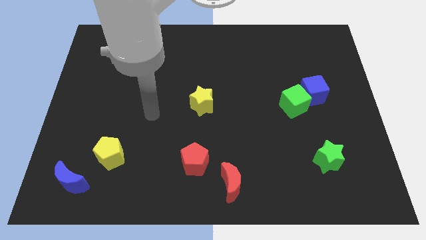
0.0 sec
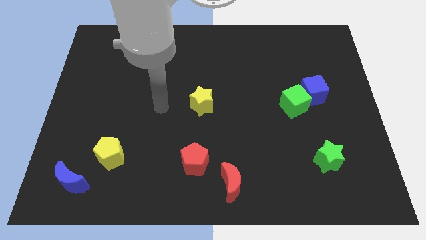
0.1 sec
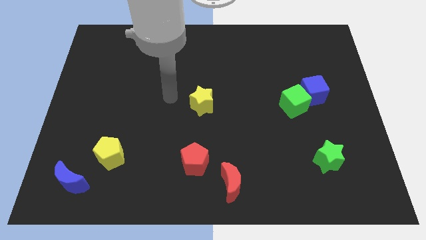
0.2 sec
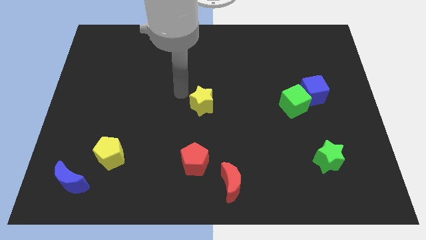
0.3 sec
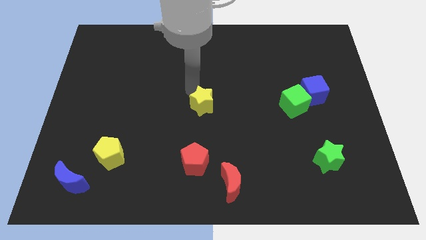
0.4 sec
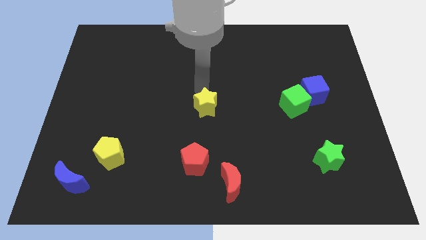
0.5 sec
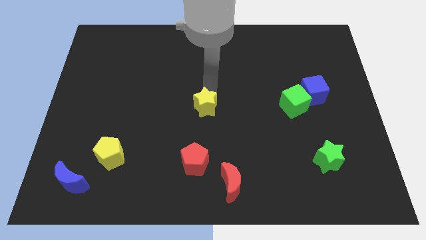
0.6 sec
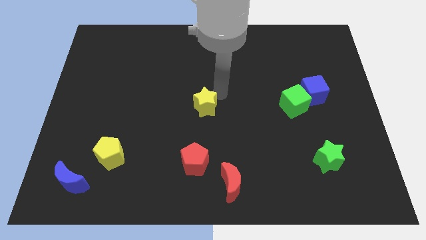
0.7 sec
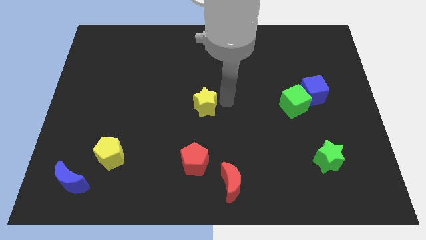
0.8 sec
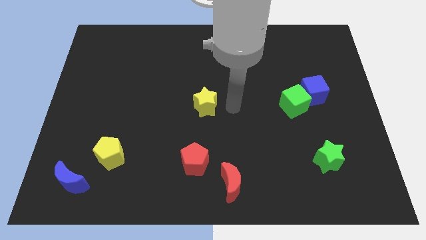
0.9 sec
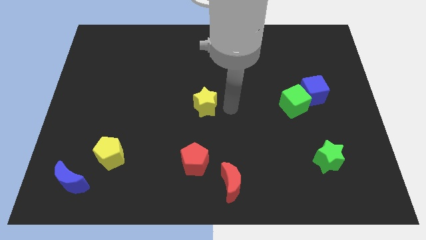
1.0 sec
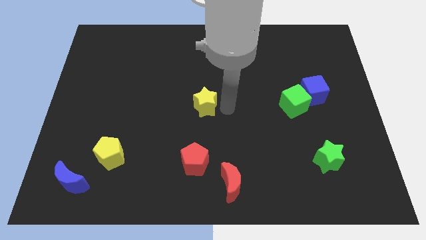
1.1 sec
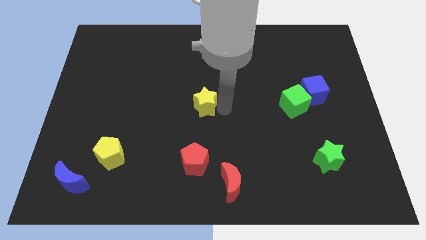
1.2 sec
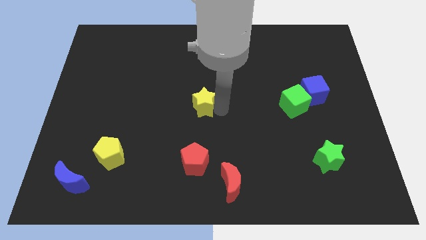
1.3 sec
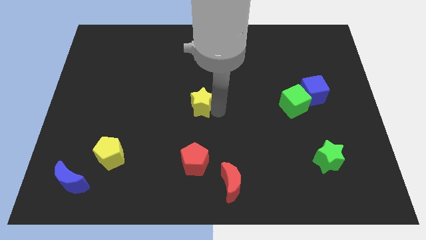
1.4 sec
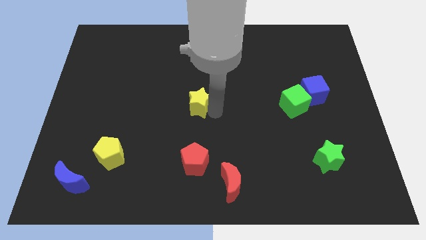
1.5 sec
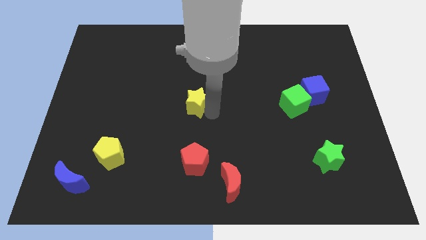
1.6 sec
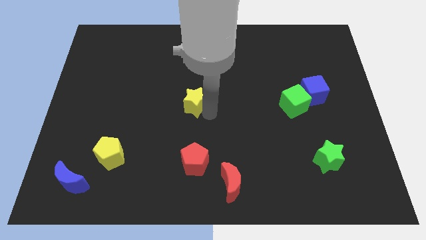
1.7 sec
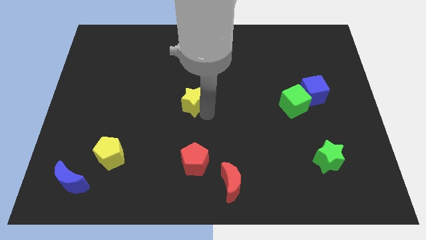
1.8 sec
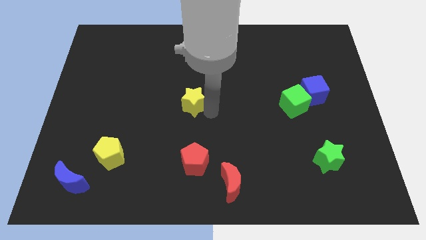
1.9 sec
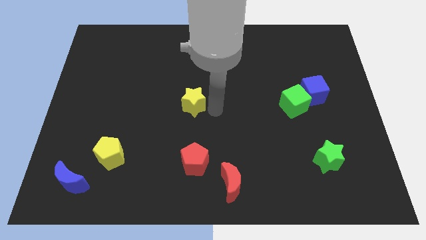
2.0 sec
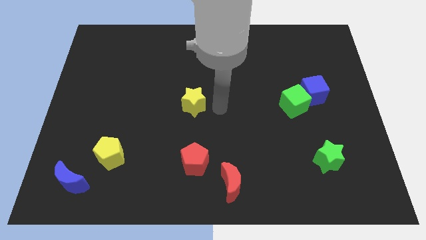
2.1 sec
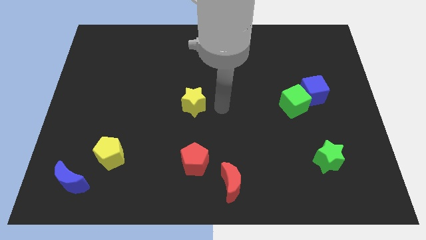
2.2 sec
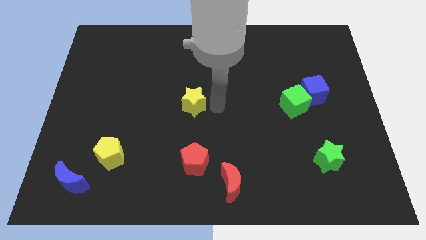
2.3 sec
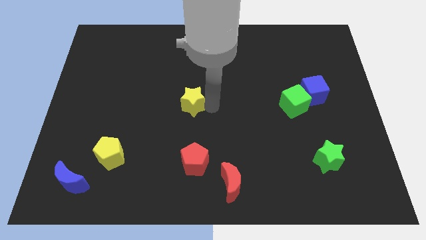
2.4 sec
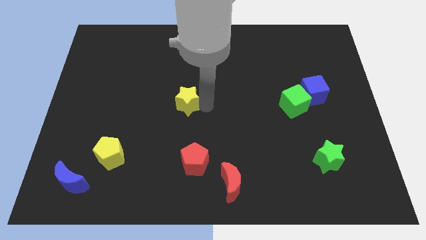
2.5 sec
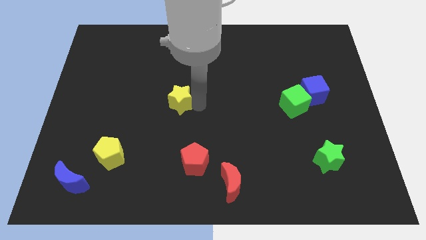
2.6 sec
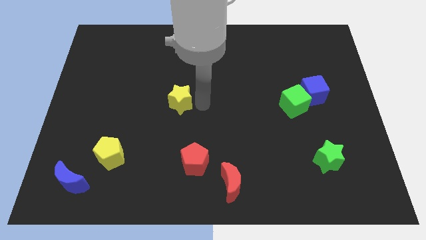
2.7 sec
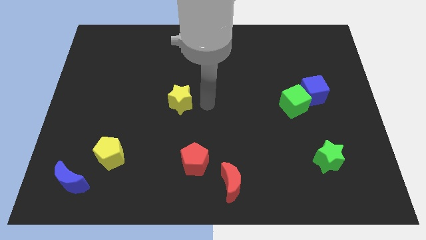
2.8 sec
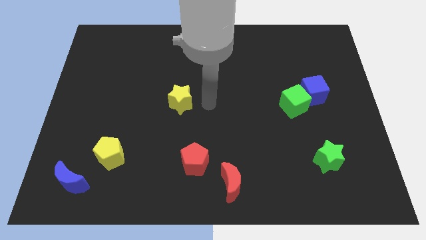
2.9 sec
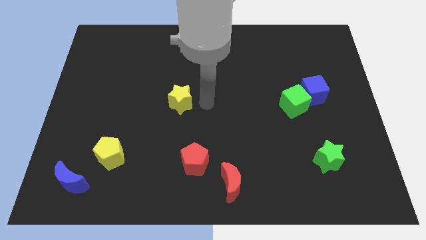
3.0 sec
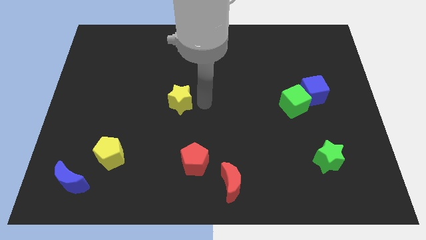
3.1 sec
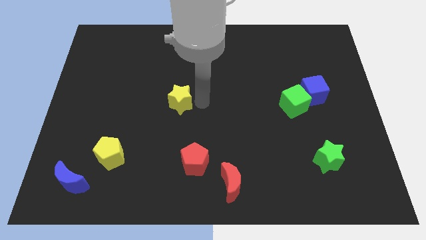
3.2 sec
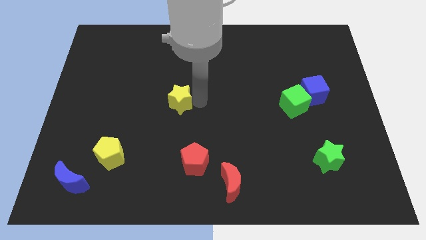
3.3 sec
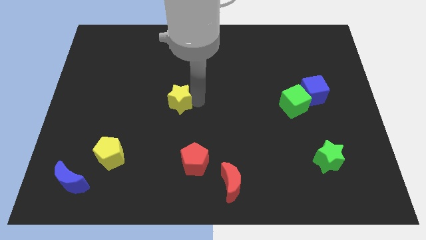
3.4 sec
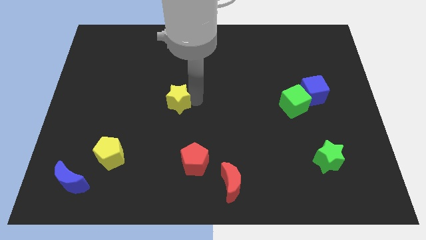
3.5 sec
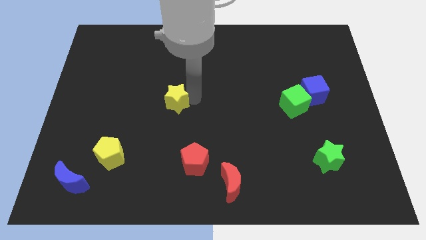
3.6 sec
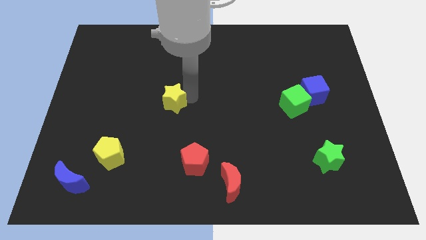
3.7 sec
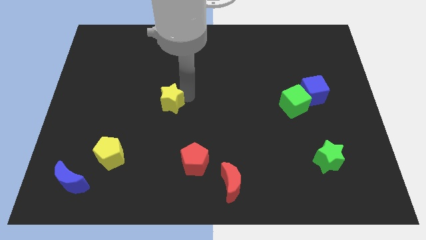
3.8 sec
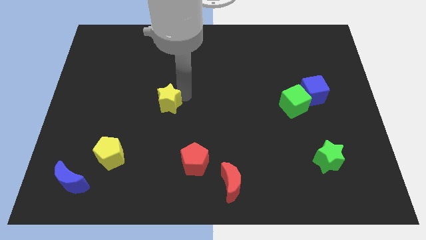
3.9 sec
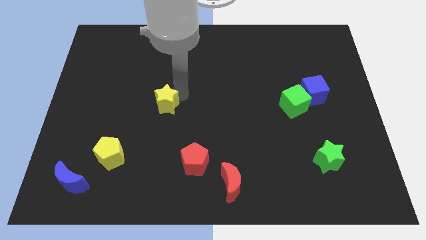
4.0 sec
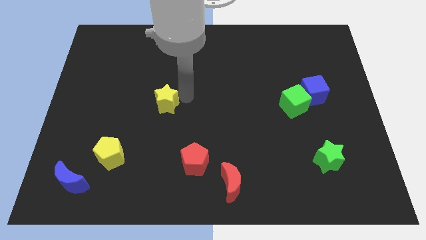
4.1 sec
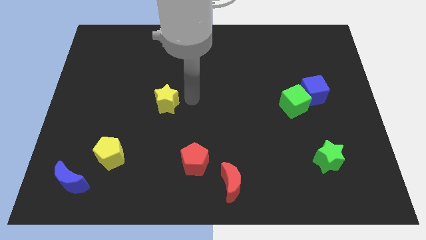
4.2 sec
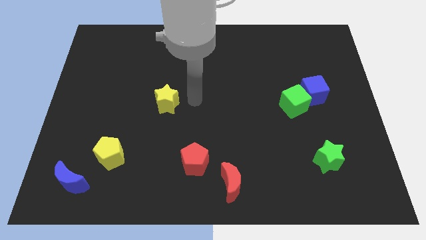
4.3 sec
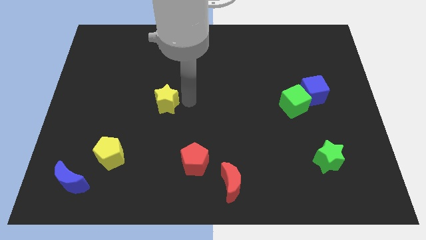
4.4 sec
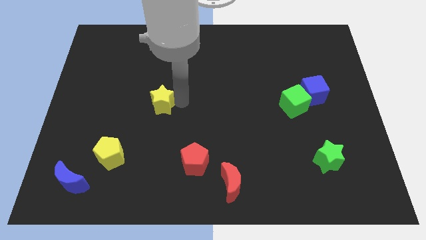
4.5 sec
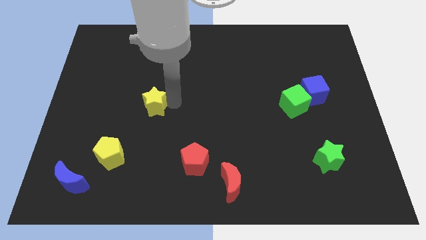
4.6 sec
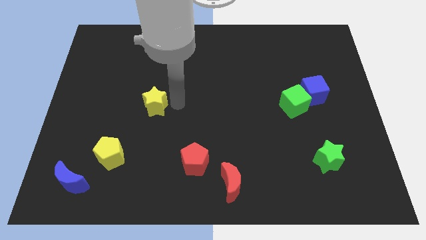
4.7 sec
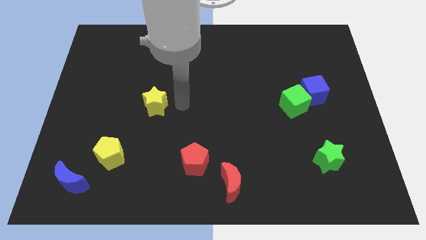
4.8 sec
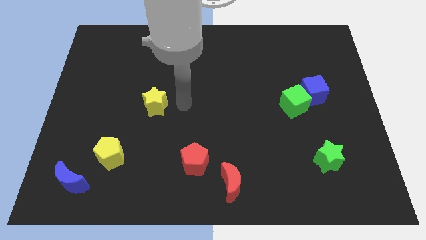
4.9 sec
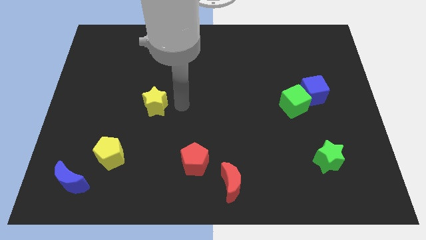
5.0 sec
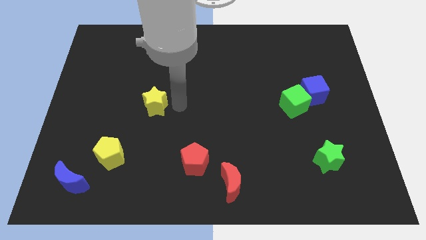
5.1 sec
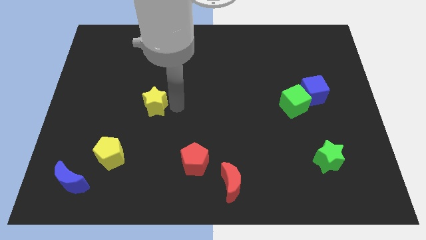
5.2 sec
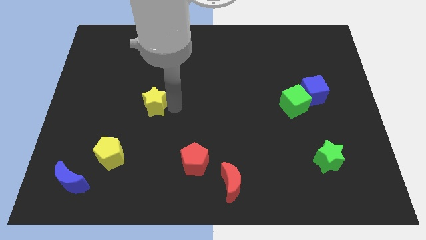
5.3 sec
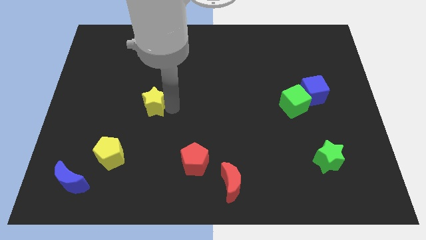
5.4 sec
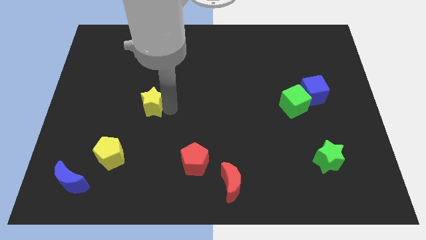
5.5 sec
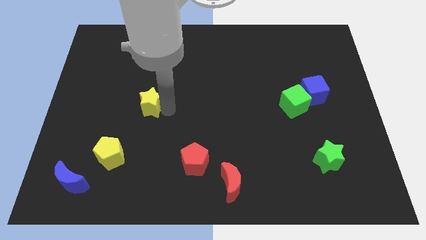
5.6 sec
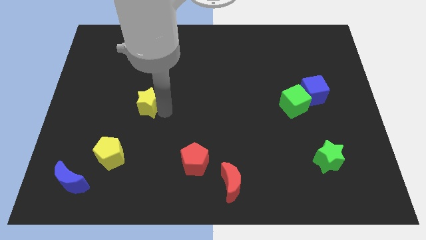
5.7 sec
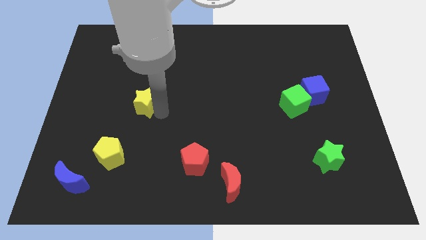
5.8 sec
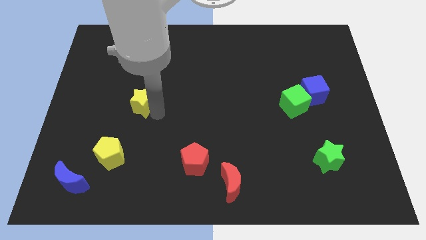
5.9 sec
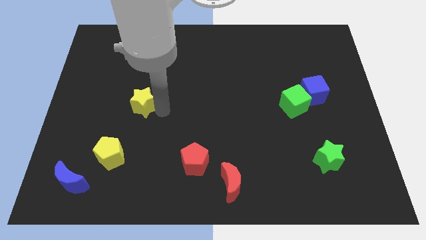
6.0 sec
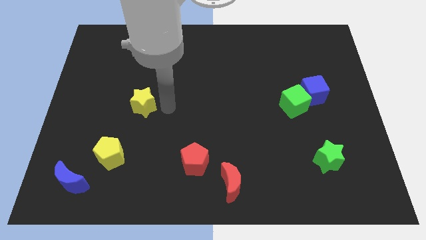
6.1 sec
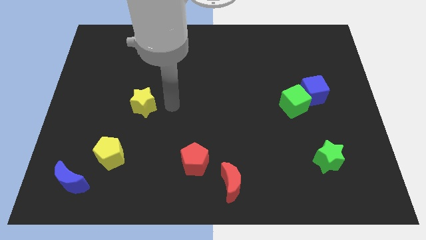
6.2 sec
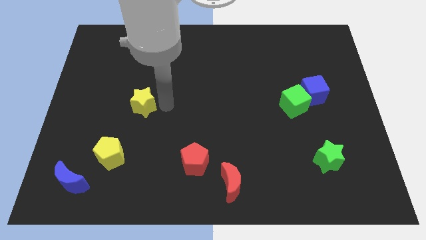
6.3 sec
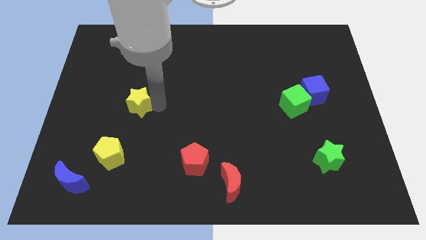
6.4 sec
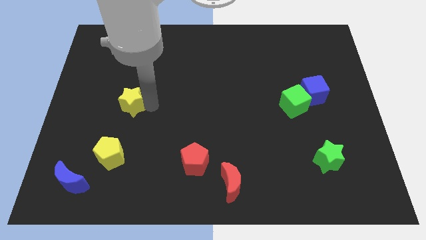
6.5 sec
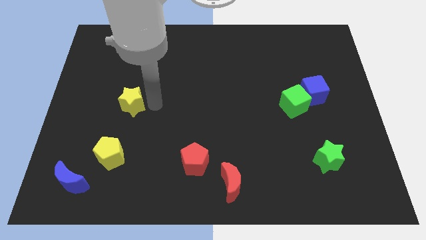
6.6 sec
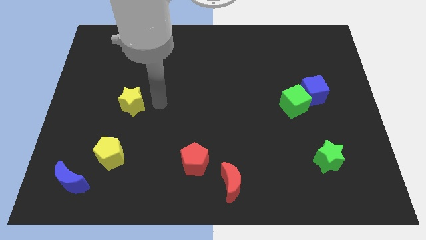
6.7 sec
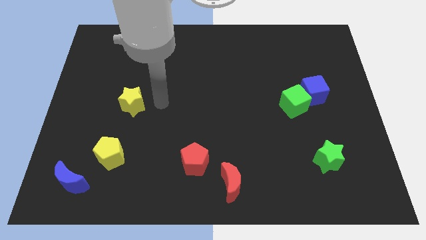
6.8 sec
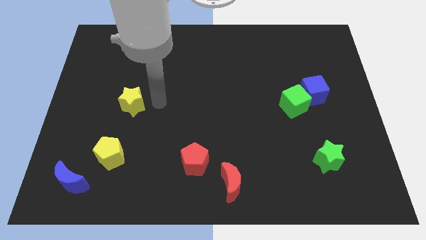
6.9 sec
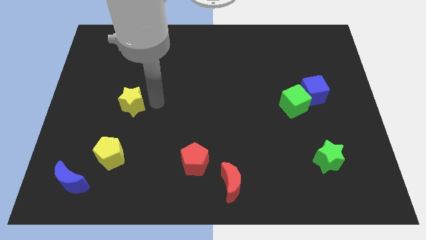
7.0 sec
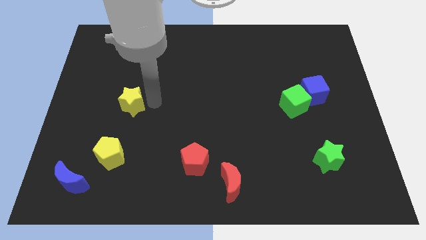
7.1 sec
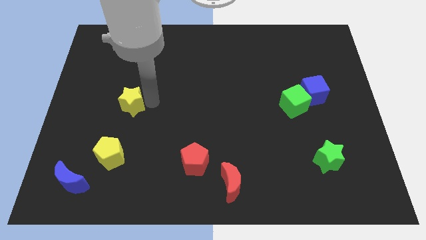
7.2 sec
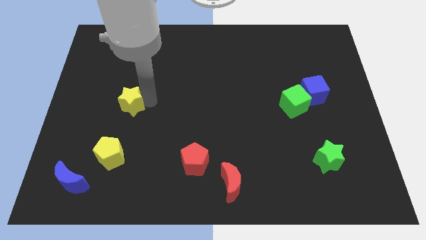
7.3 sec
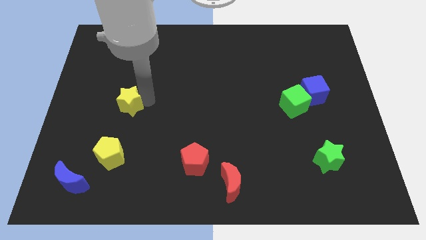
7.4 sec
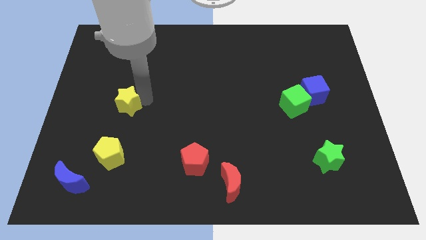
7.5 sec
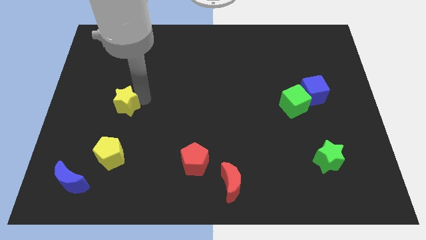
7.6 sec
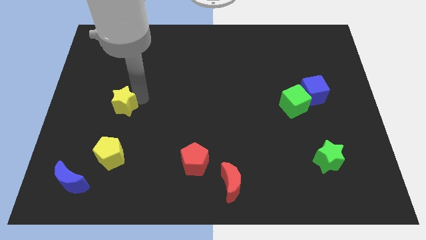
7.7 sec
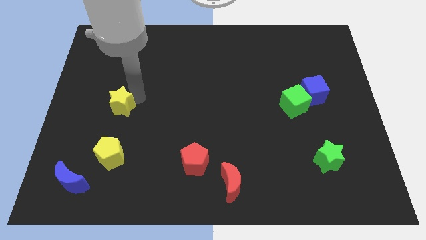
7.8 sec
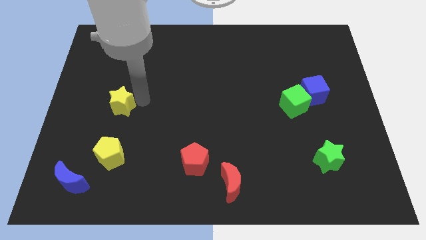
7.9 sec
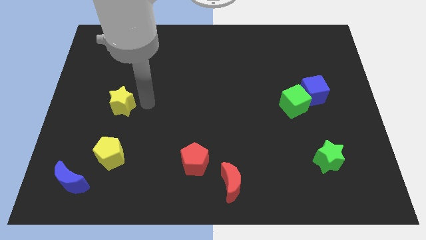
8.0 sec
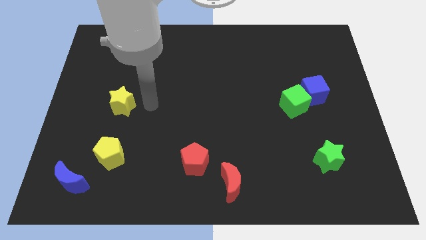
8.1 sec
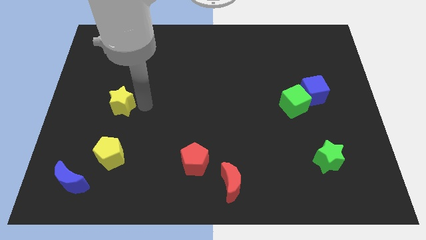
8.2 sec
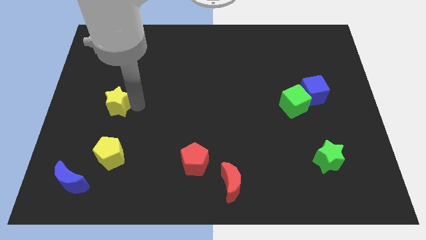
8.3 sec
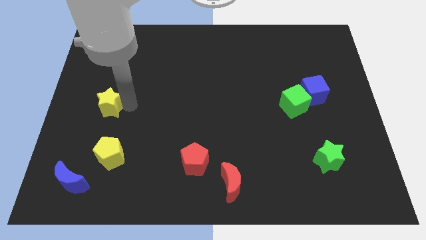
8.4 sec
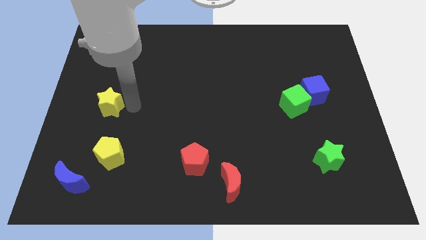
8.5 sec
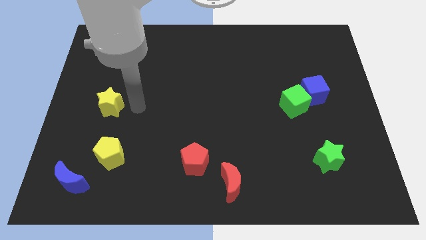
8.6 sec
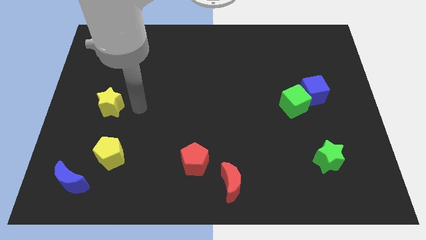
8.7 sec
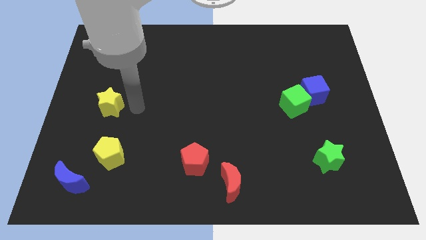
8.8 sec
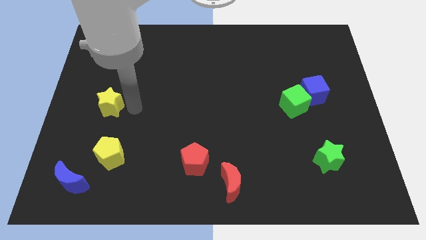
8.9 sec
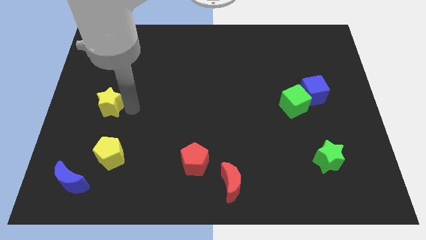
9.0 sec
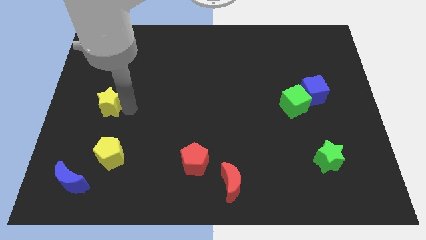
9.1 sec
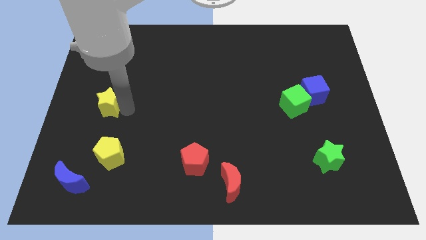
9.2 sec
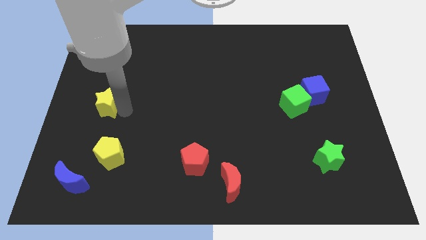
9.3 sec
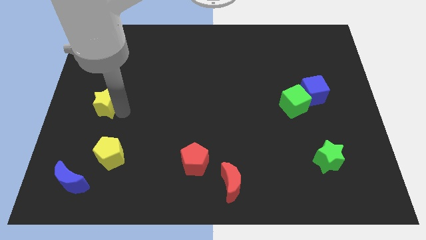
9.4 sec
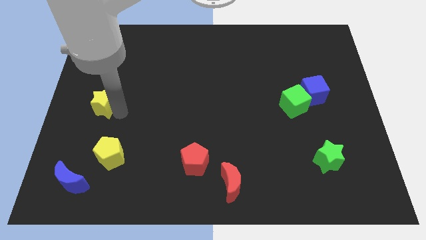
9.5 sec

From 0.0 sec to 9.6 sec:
push the yellow star to the left side of the board
